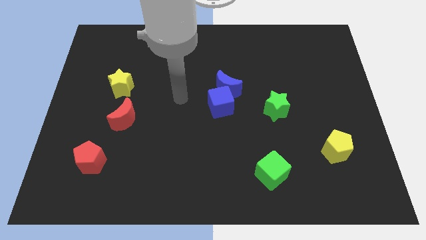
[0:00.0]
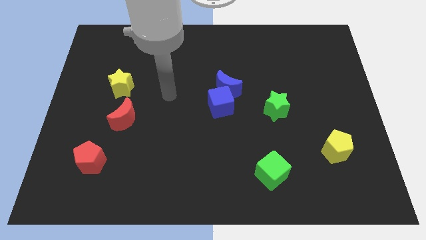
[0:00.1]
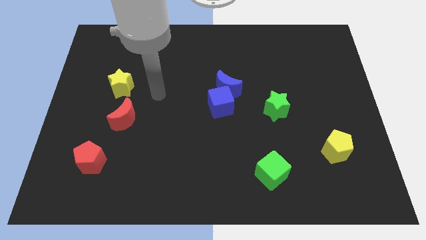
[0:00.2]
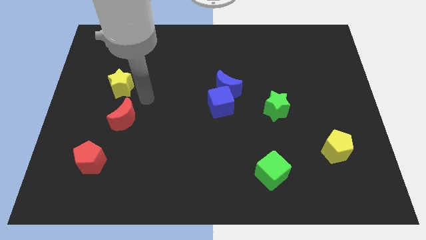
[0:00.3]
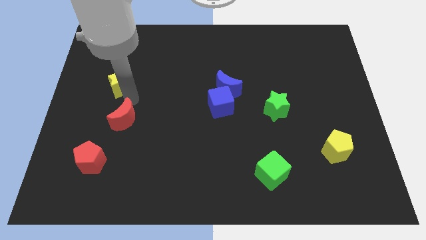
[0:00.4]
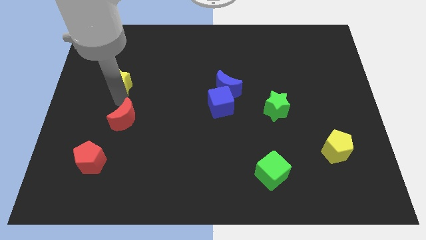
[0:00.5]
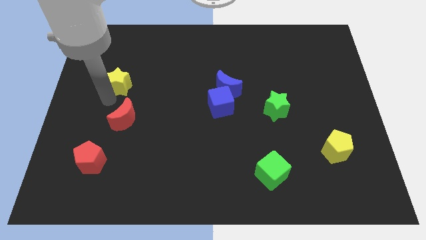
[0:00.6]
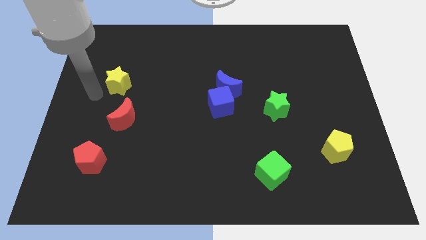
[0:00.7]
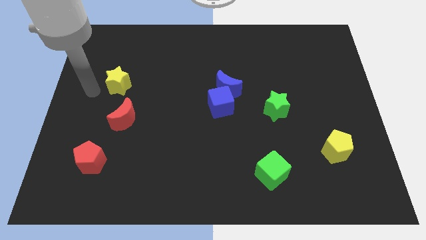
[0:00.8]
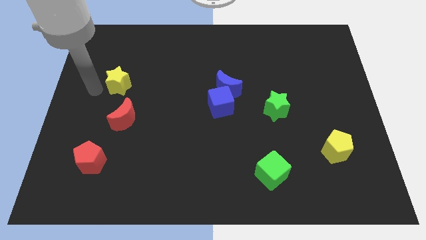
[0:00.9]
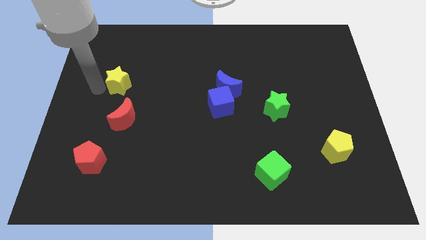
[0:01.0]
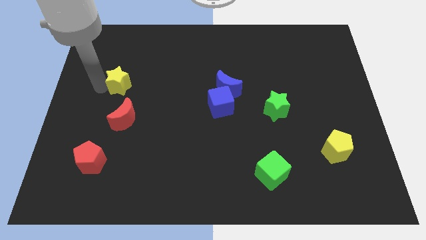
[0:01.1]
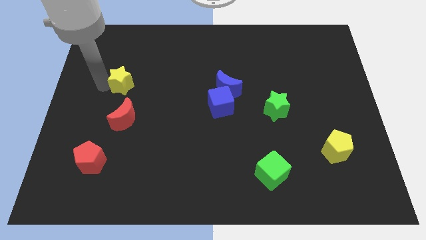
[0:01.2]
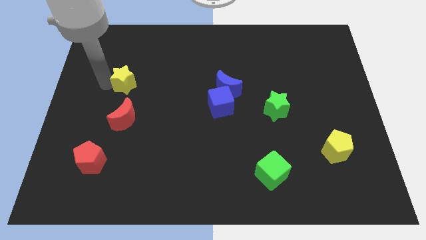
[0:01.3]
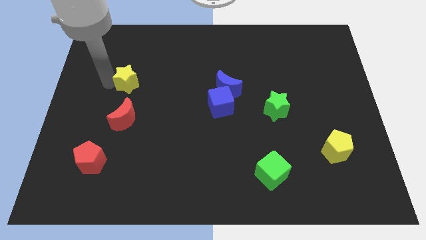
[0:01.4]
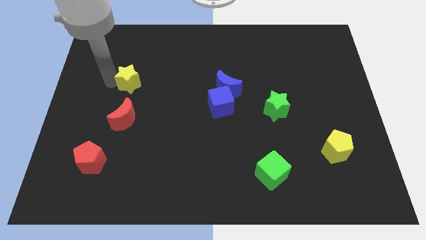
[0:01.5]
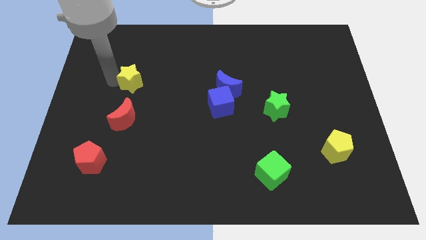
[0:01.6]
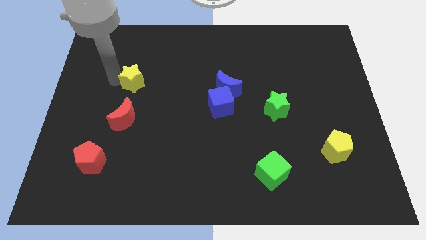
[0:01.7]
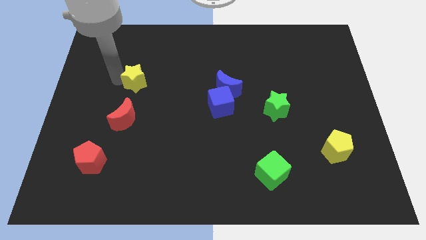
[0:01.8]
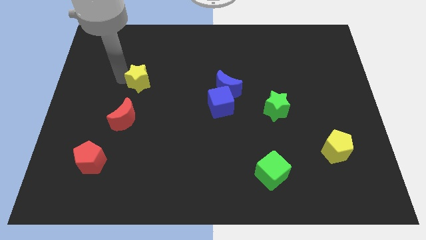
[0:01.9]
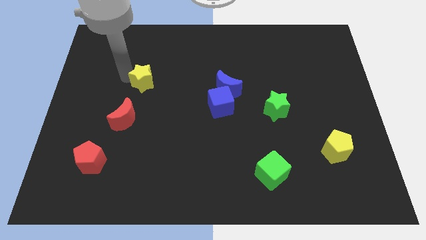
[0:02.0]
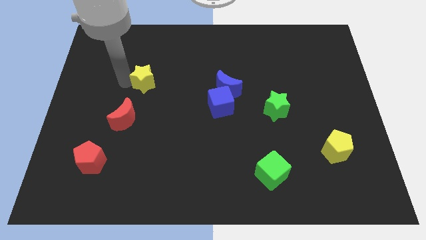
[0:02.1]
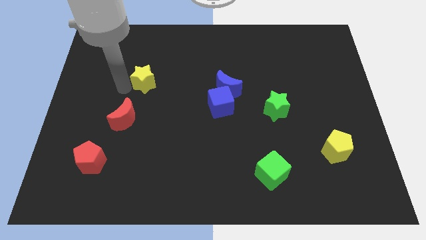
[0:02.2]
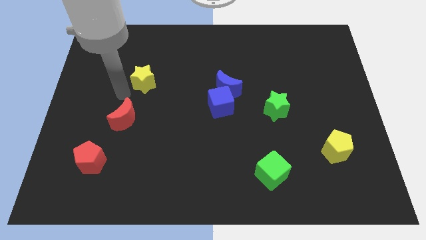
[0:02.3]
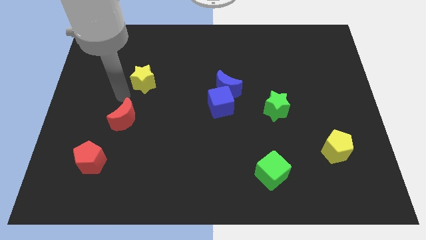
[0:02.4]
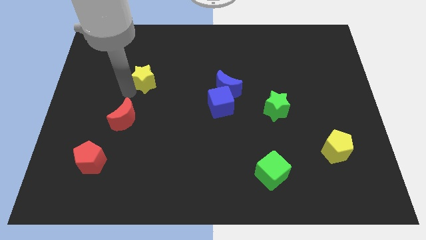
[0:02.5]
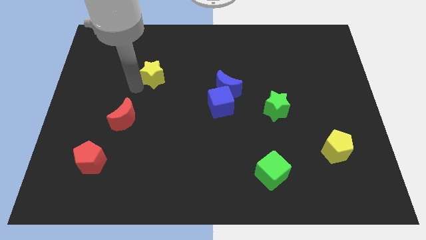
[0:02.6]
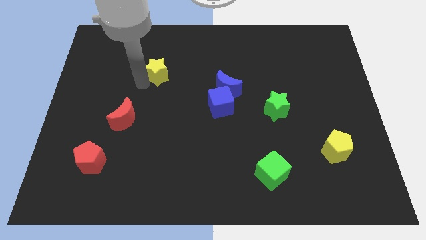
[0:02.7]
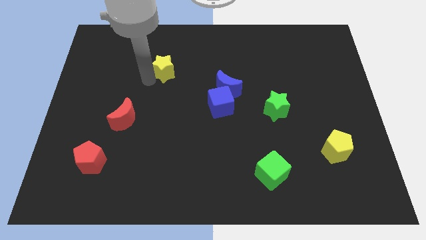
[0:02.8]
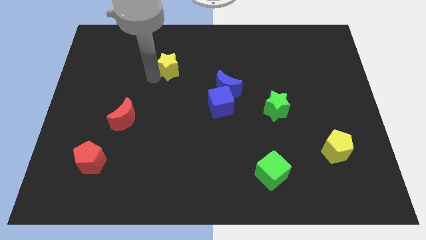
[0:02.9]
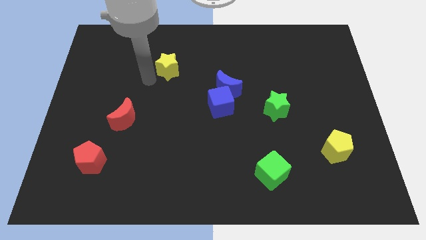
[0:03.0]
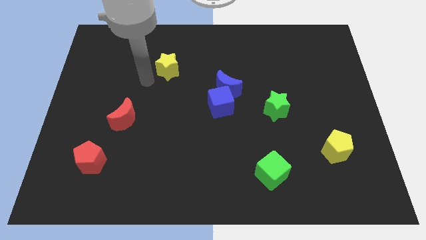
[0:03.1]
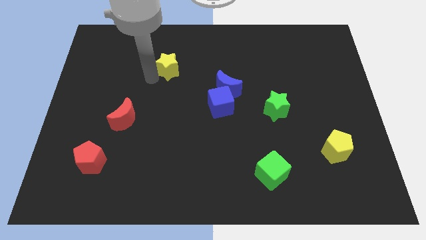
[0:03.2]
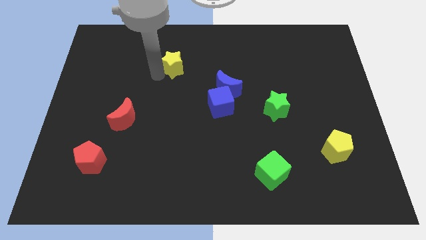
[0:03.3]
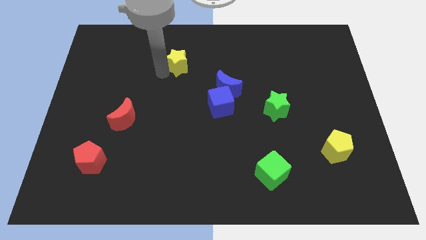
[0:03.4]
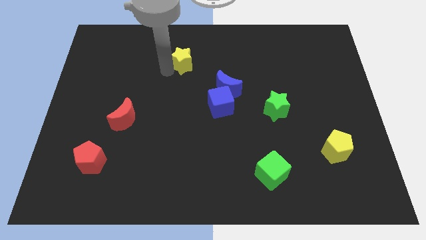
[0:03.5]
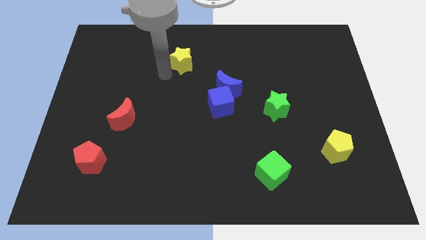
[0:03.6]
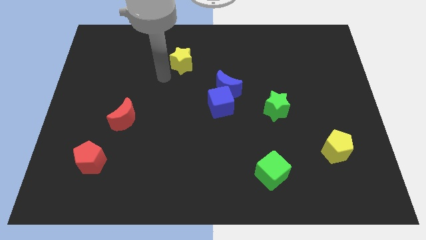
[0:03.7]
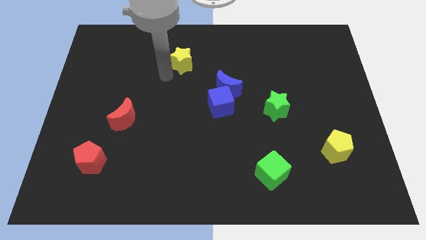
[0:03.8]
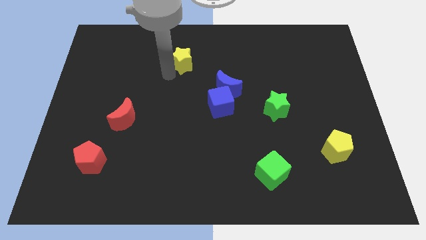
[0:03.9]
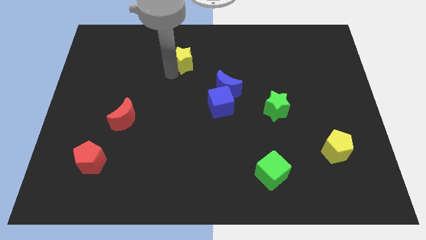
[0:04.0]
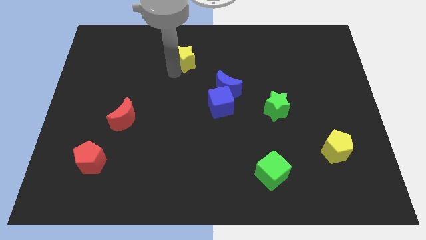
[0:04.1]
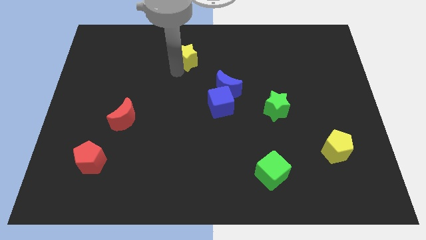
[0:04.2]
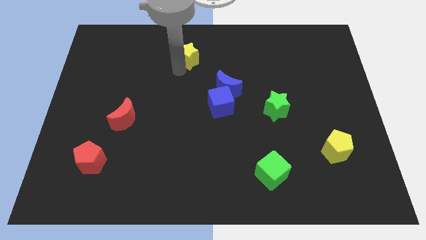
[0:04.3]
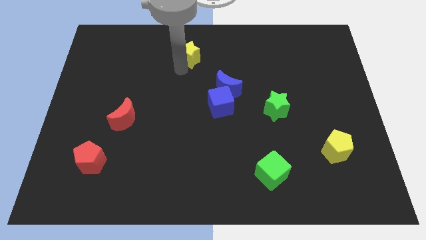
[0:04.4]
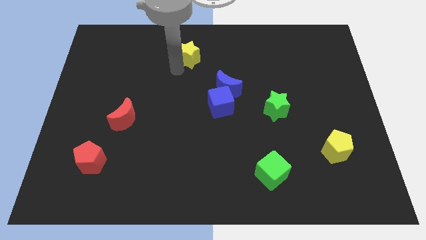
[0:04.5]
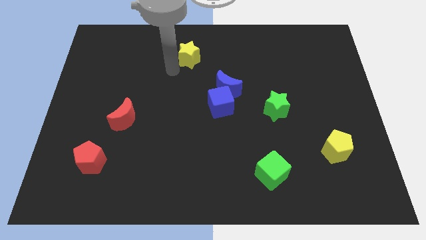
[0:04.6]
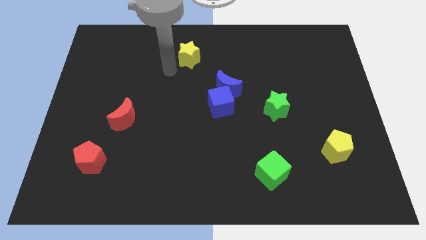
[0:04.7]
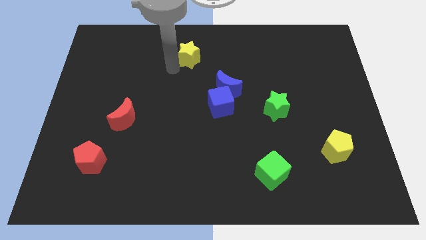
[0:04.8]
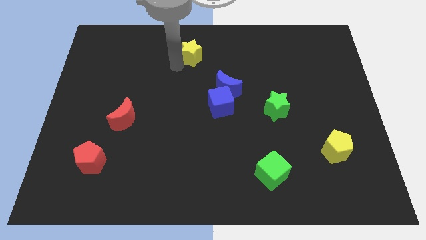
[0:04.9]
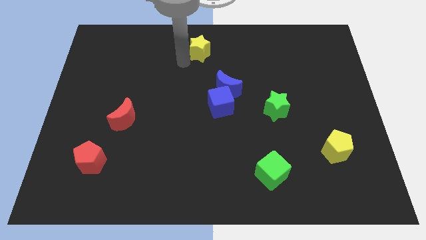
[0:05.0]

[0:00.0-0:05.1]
put the yellow star to the top

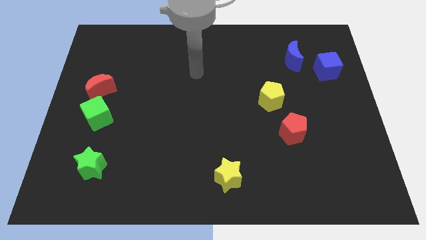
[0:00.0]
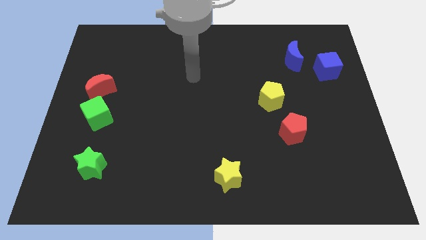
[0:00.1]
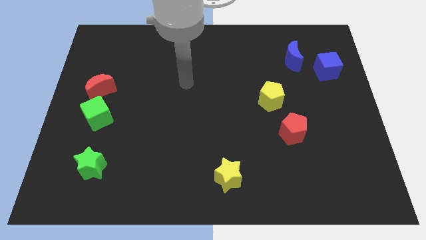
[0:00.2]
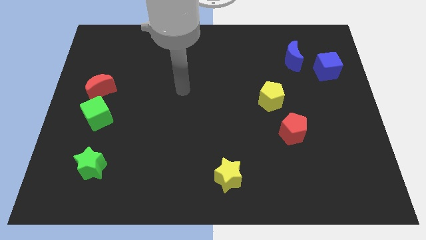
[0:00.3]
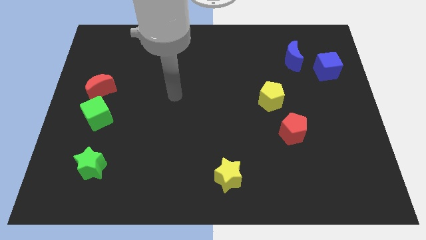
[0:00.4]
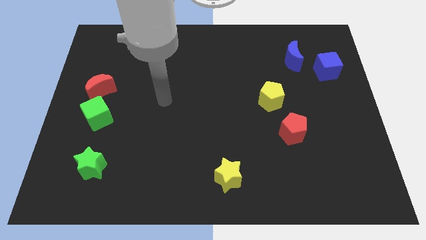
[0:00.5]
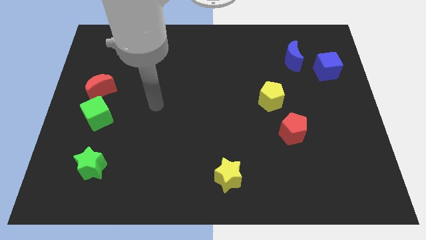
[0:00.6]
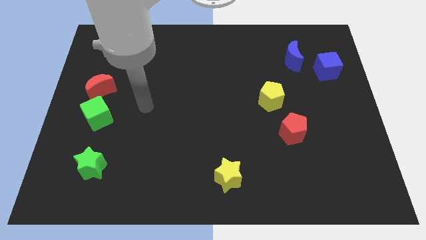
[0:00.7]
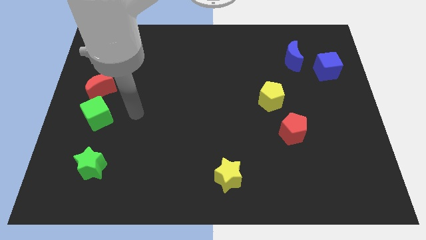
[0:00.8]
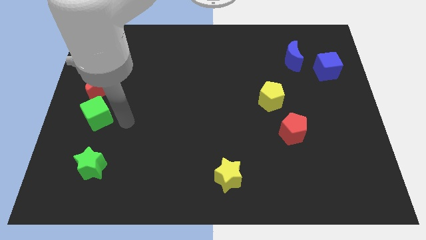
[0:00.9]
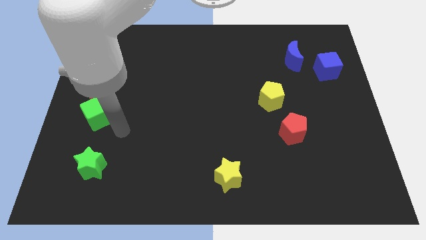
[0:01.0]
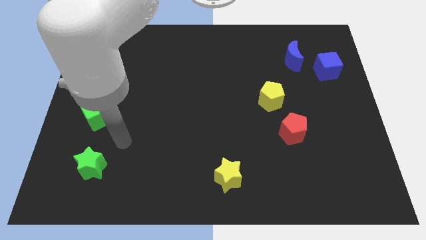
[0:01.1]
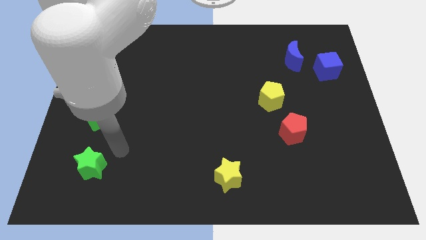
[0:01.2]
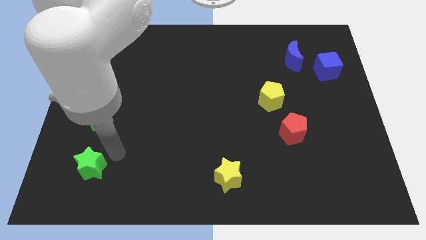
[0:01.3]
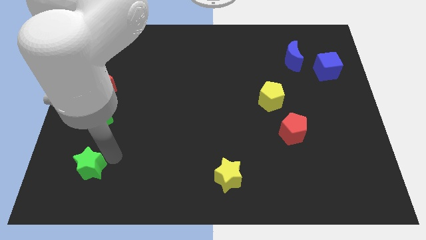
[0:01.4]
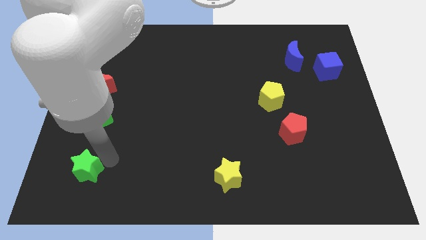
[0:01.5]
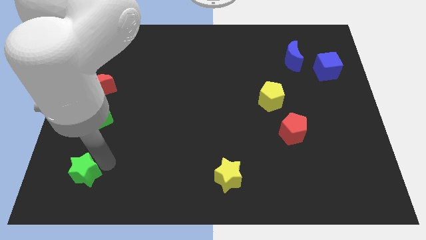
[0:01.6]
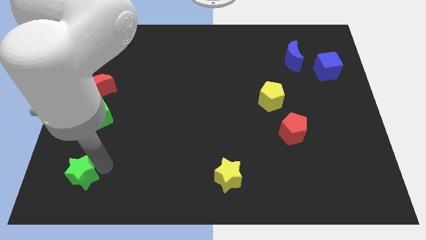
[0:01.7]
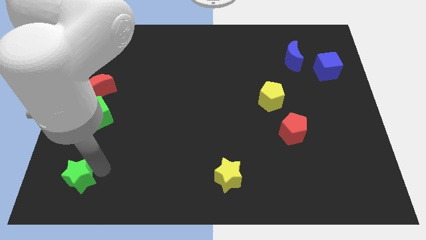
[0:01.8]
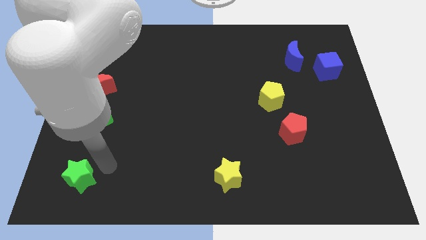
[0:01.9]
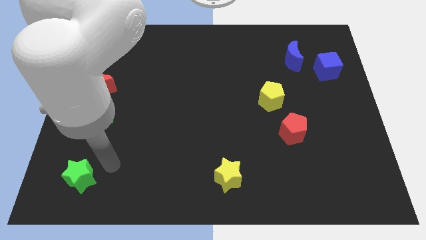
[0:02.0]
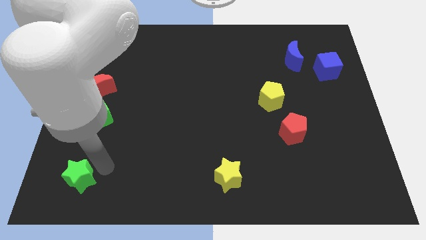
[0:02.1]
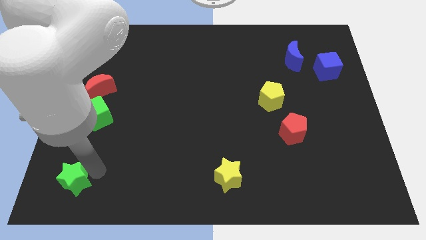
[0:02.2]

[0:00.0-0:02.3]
push the green star to the bottom left of the board
